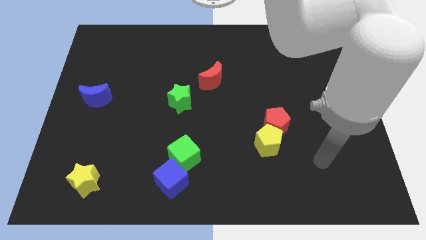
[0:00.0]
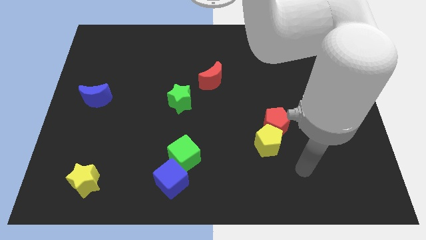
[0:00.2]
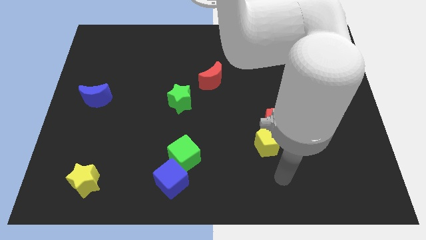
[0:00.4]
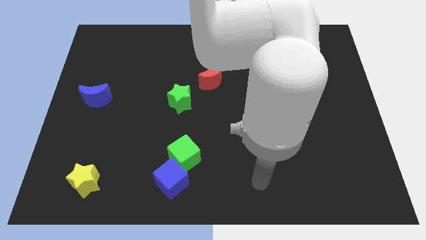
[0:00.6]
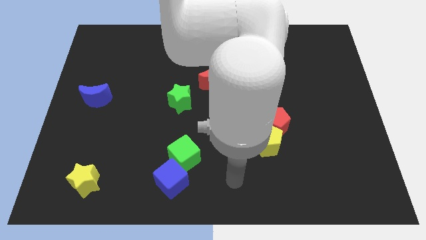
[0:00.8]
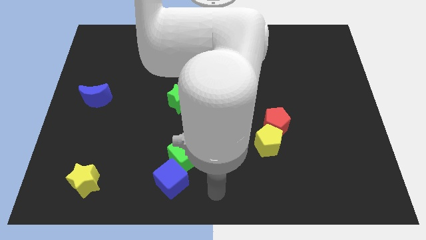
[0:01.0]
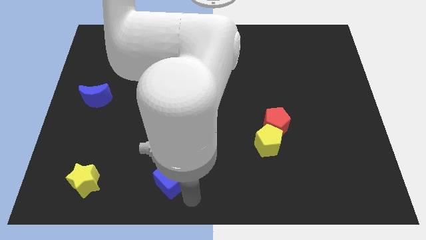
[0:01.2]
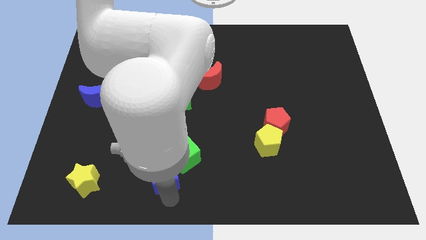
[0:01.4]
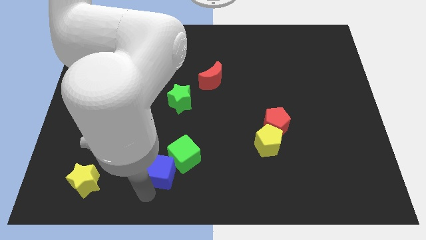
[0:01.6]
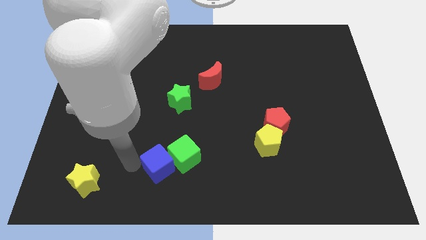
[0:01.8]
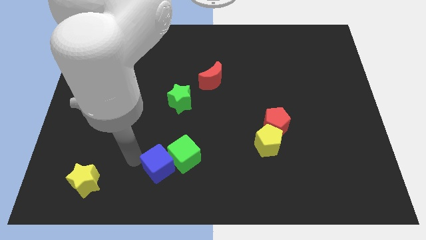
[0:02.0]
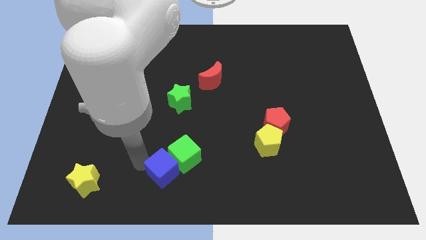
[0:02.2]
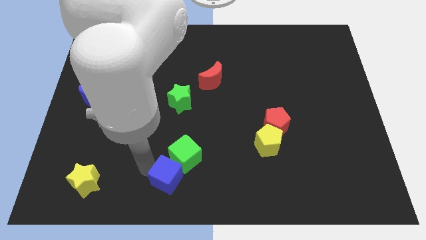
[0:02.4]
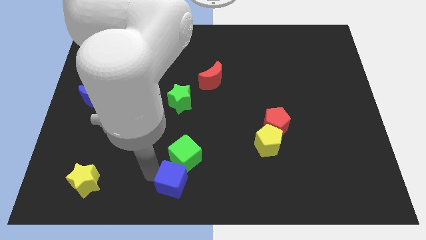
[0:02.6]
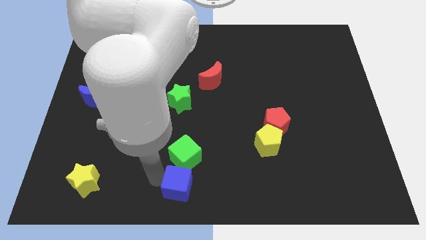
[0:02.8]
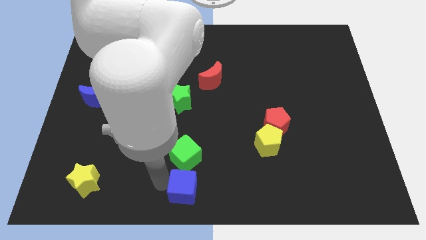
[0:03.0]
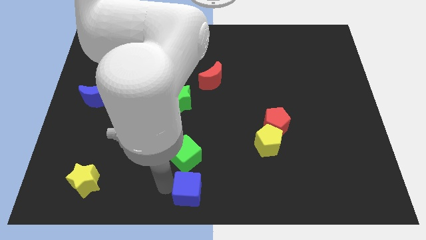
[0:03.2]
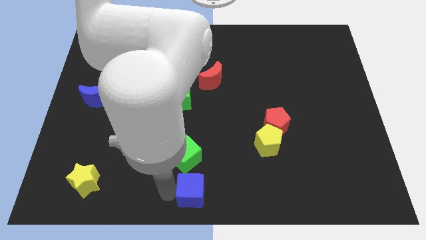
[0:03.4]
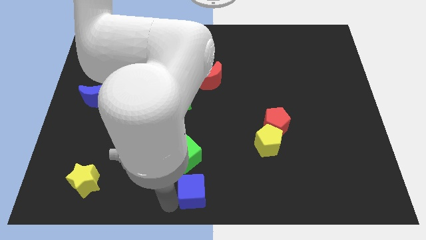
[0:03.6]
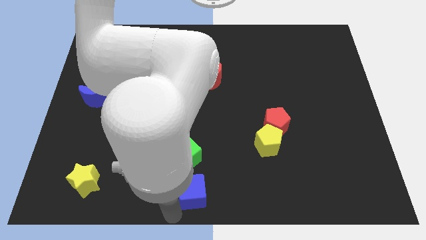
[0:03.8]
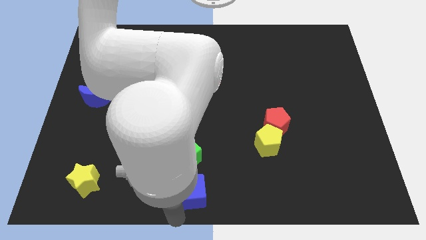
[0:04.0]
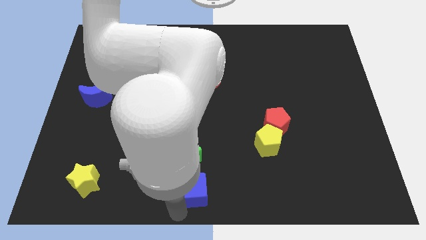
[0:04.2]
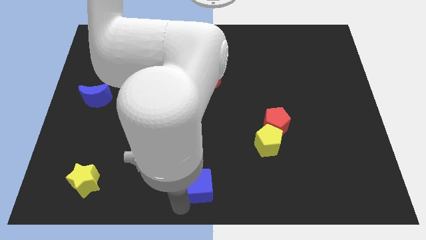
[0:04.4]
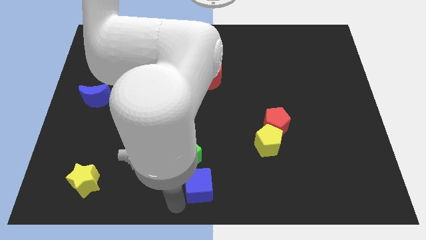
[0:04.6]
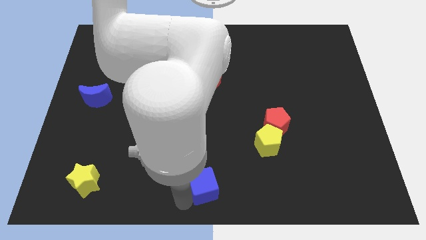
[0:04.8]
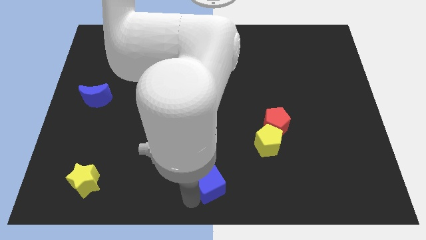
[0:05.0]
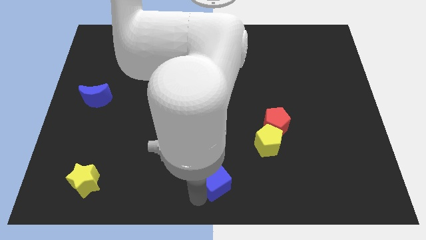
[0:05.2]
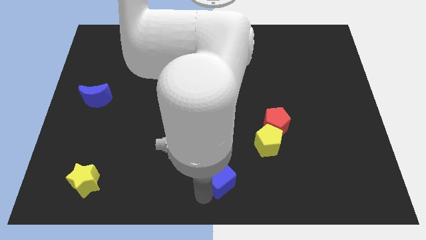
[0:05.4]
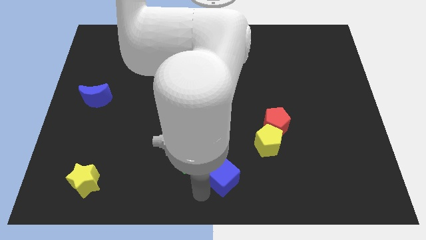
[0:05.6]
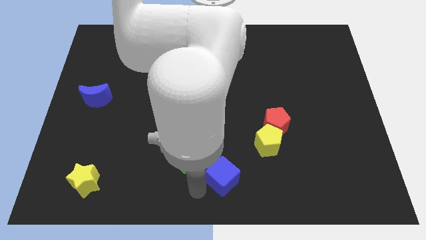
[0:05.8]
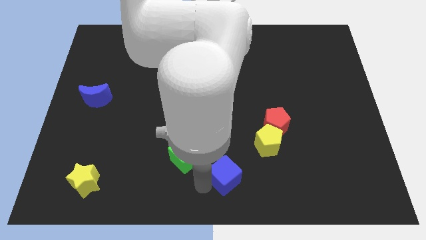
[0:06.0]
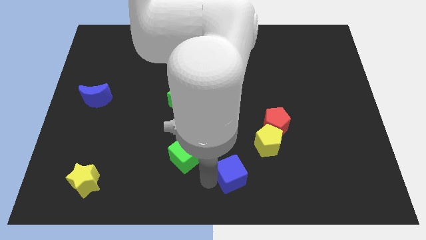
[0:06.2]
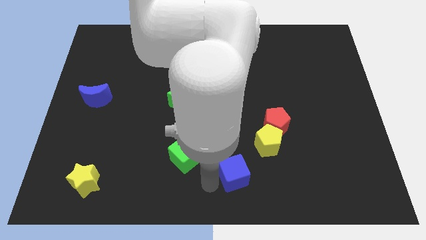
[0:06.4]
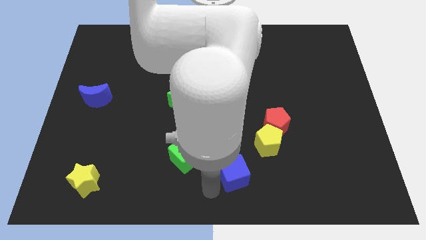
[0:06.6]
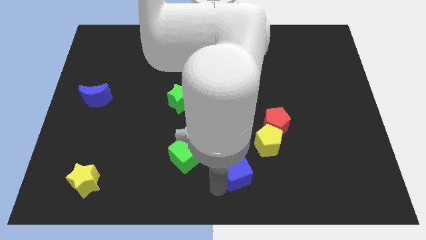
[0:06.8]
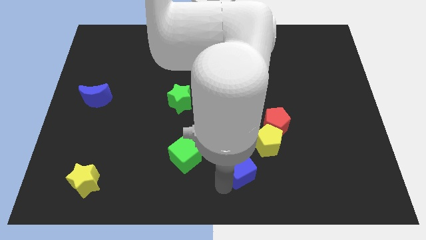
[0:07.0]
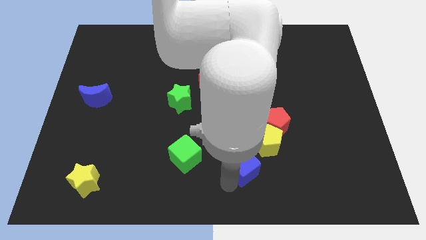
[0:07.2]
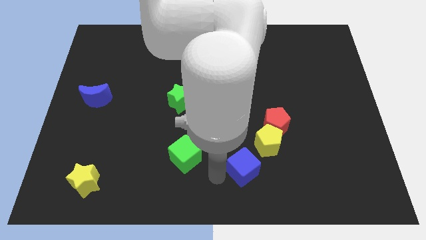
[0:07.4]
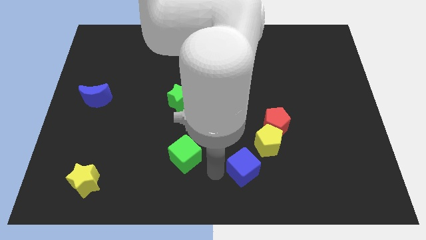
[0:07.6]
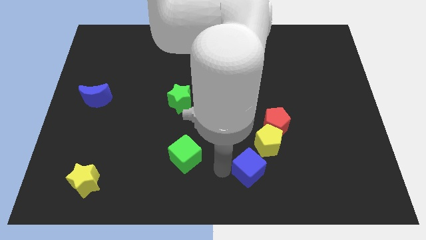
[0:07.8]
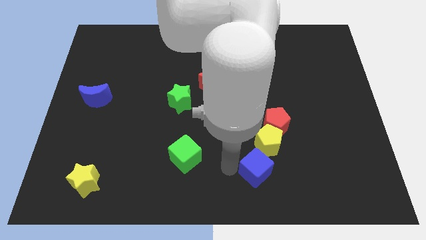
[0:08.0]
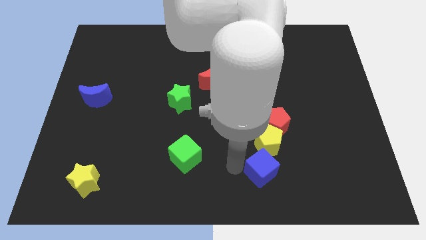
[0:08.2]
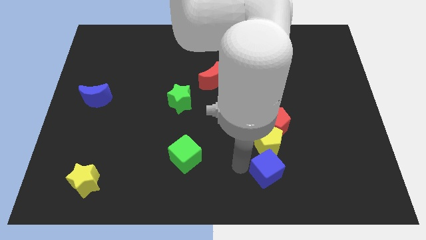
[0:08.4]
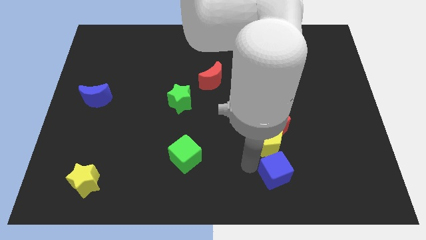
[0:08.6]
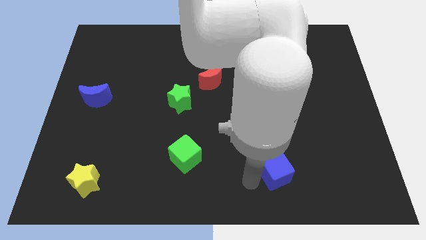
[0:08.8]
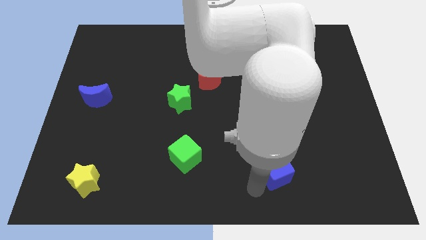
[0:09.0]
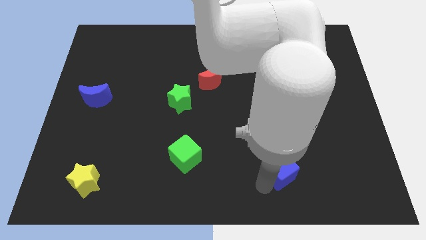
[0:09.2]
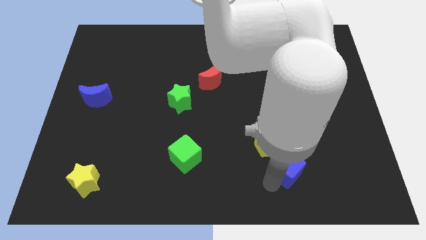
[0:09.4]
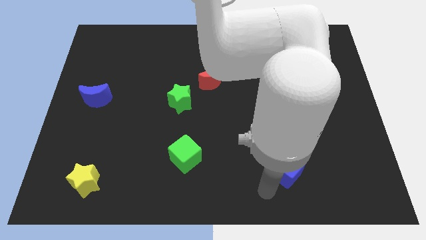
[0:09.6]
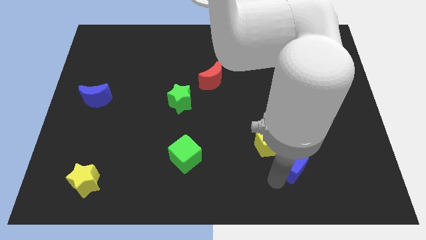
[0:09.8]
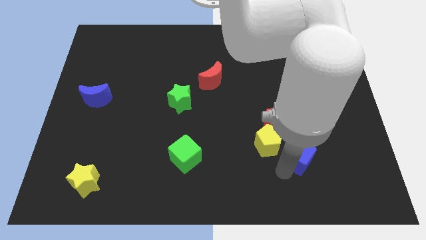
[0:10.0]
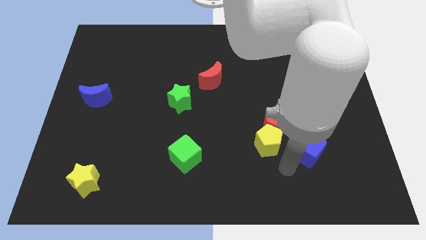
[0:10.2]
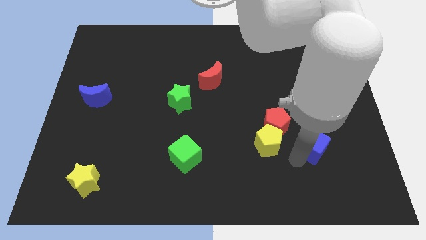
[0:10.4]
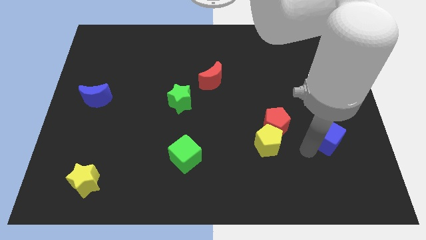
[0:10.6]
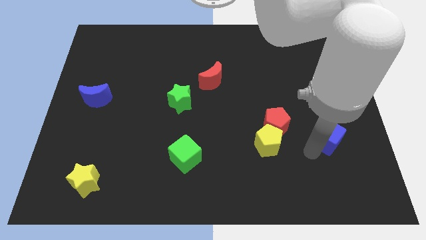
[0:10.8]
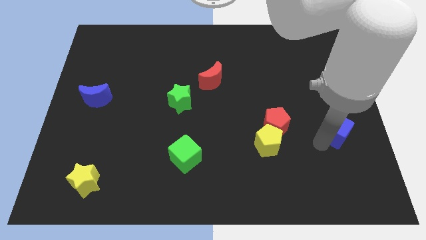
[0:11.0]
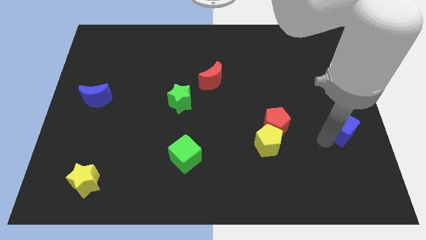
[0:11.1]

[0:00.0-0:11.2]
put the blue cube to the center right

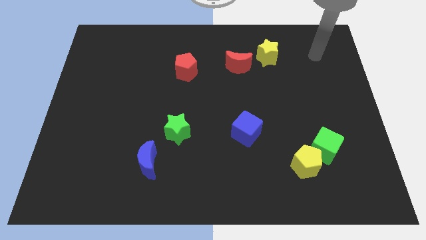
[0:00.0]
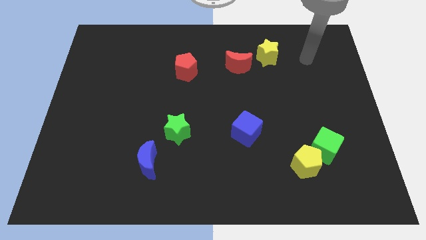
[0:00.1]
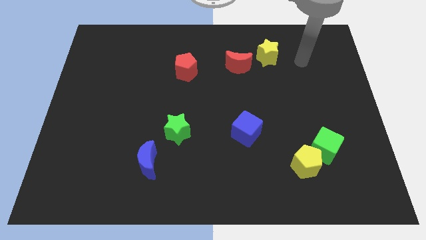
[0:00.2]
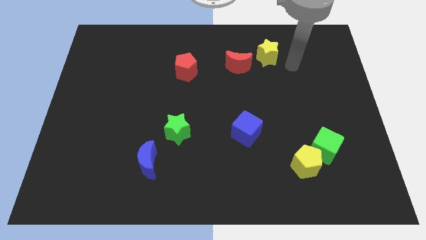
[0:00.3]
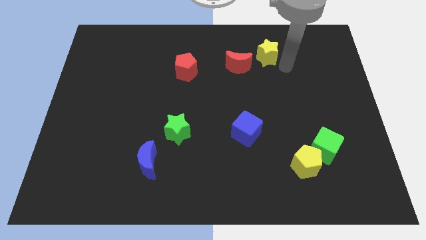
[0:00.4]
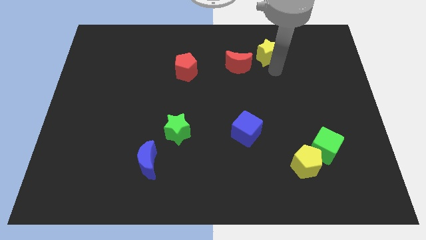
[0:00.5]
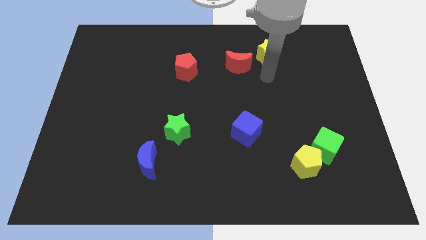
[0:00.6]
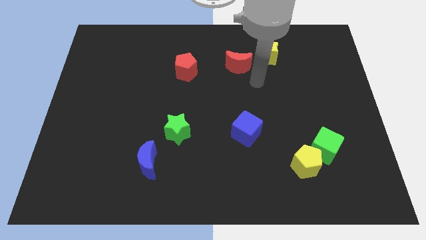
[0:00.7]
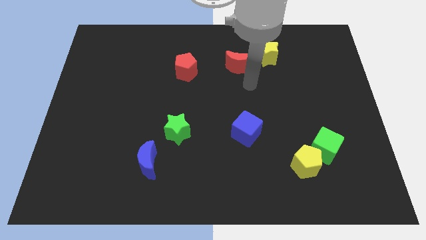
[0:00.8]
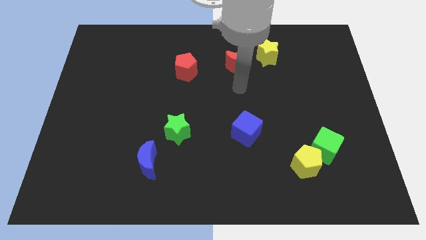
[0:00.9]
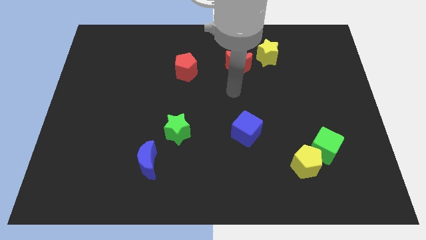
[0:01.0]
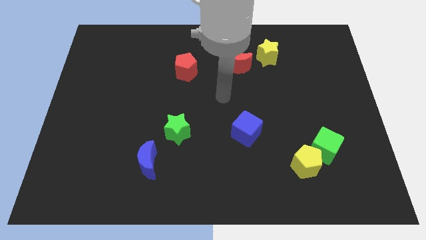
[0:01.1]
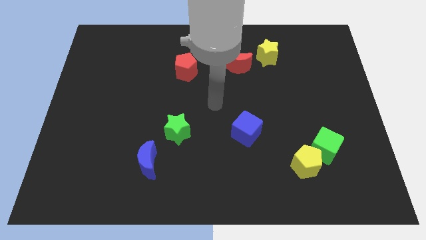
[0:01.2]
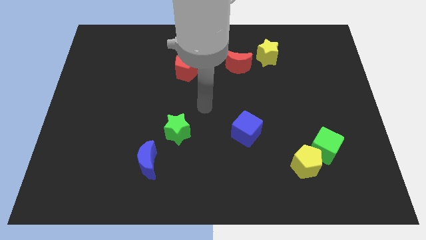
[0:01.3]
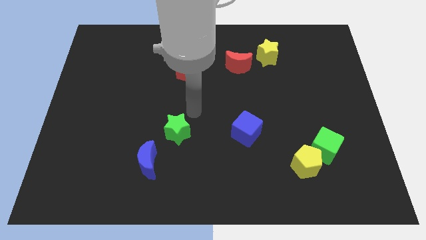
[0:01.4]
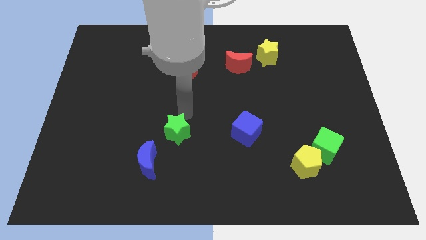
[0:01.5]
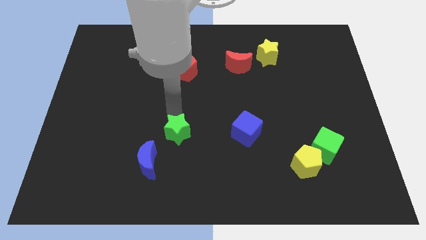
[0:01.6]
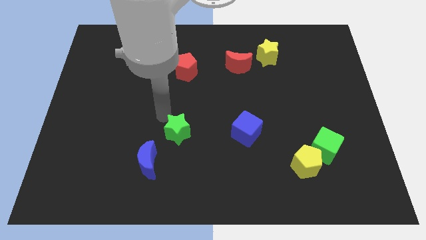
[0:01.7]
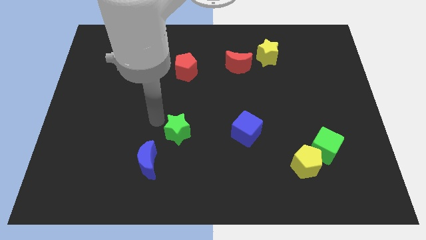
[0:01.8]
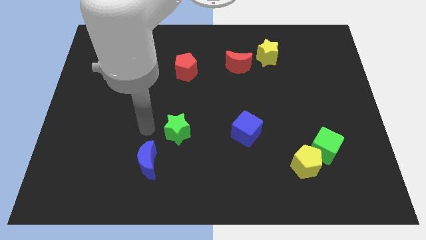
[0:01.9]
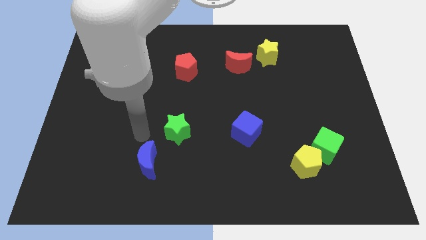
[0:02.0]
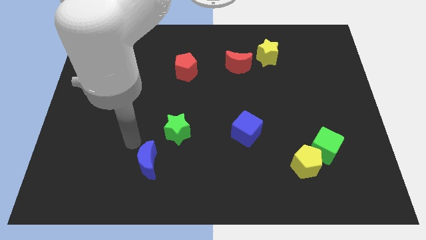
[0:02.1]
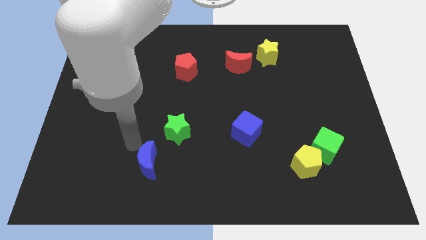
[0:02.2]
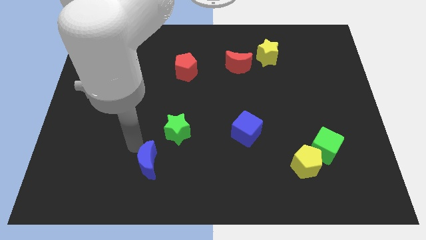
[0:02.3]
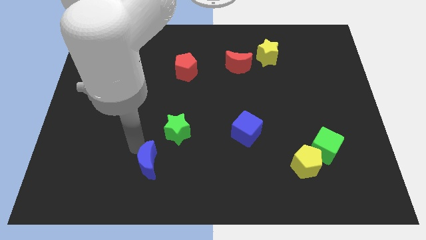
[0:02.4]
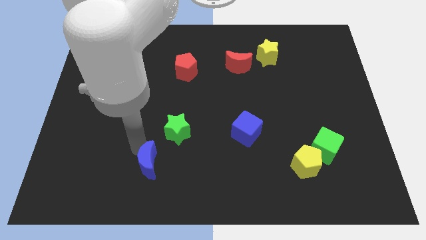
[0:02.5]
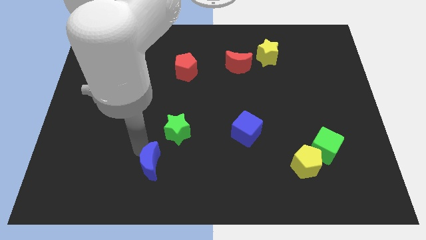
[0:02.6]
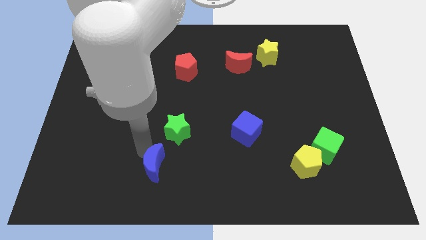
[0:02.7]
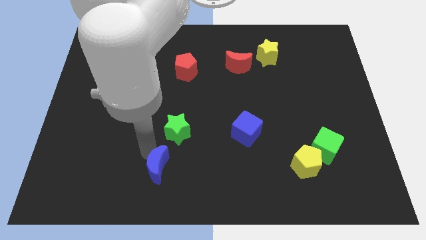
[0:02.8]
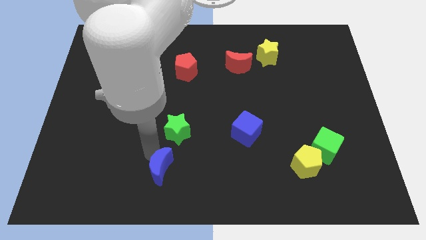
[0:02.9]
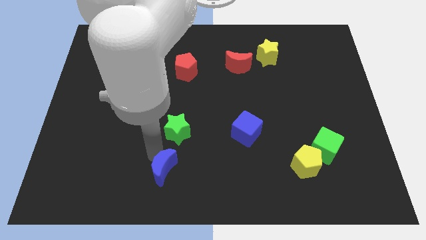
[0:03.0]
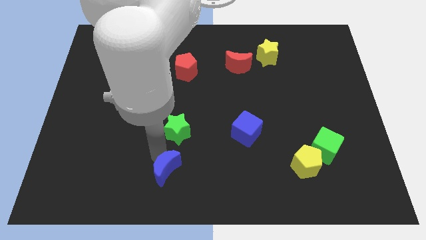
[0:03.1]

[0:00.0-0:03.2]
slide the blue moon to the bottom side
